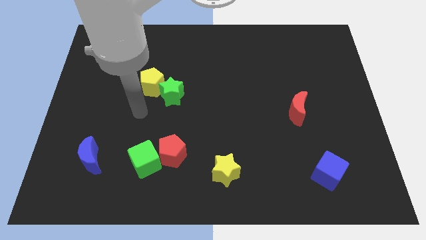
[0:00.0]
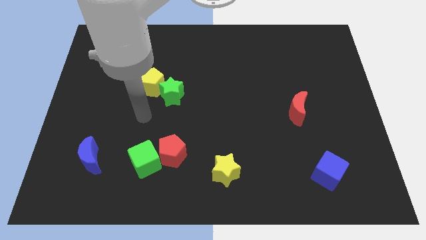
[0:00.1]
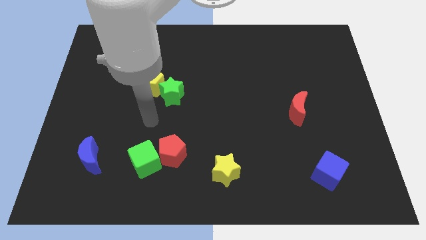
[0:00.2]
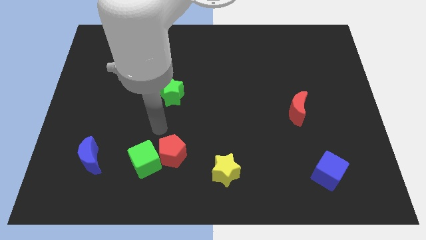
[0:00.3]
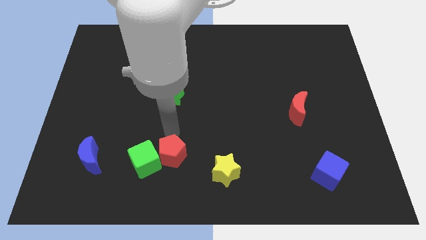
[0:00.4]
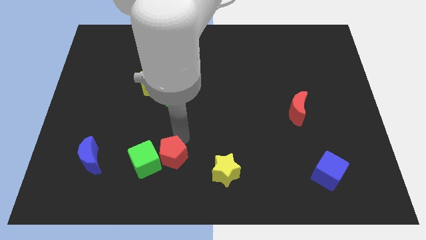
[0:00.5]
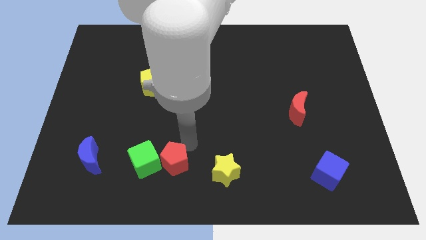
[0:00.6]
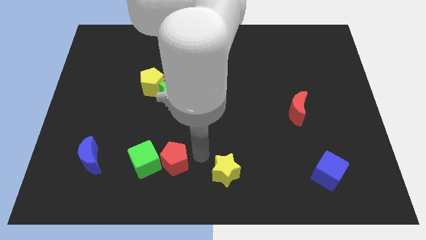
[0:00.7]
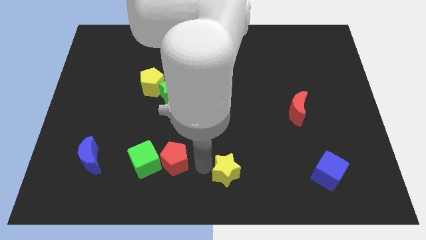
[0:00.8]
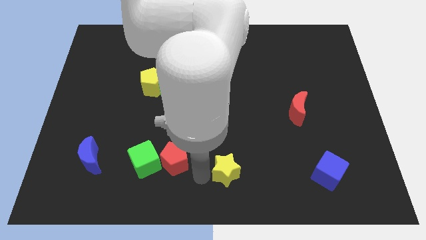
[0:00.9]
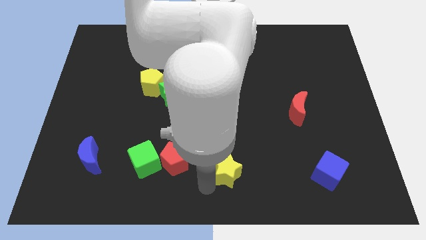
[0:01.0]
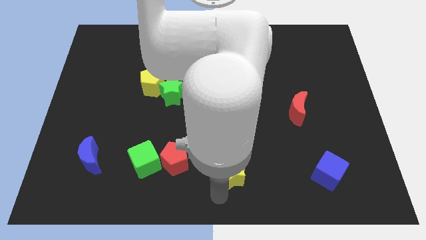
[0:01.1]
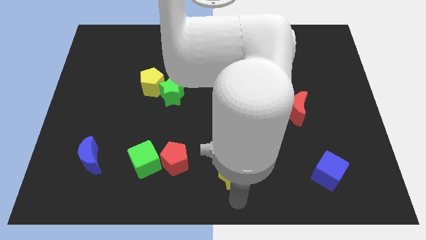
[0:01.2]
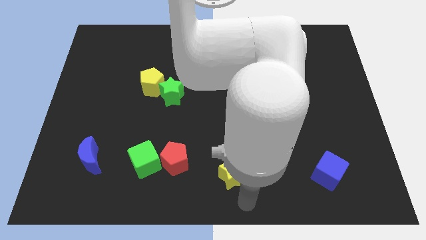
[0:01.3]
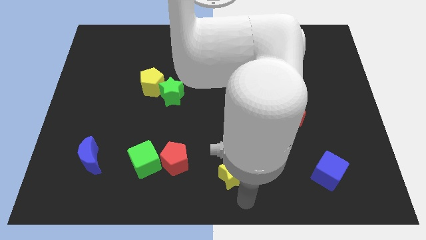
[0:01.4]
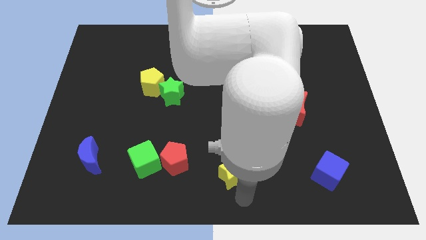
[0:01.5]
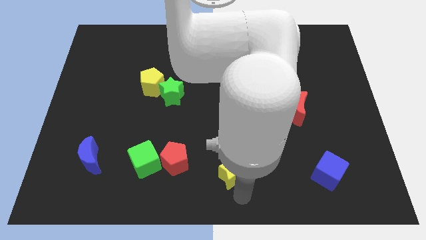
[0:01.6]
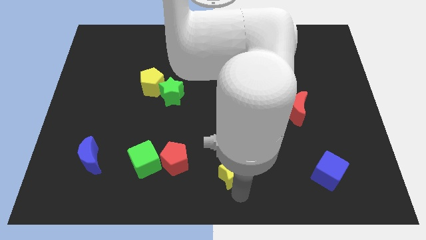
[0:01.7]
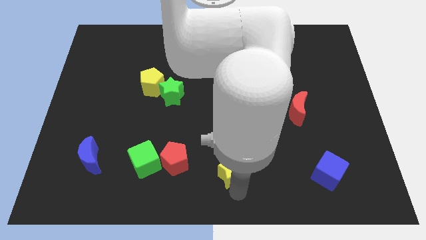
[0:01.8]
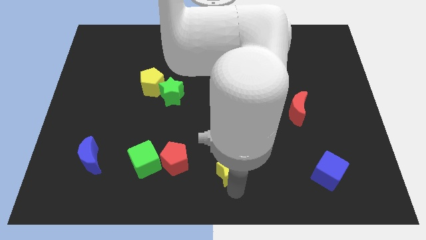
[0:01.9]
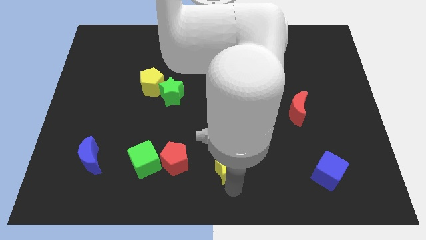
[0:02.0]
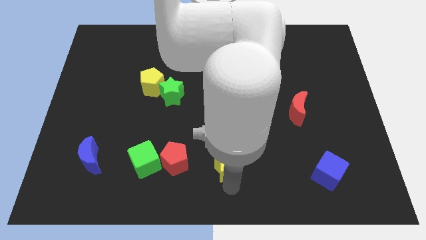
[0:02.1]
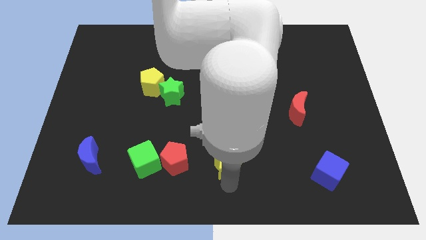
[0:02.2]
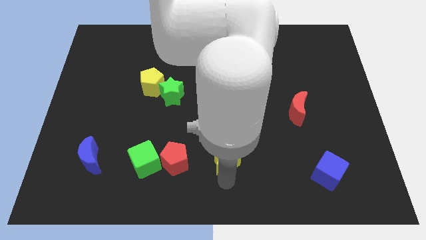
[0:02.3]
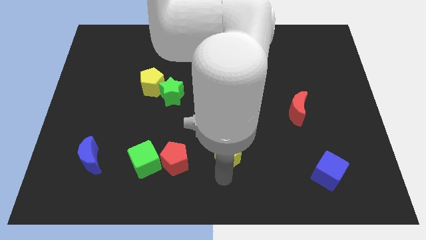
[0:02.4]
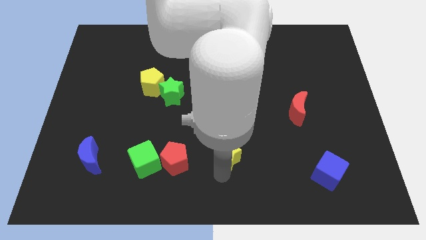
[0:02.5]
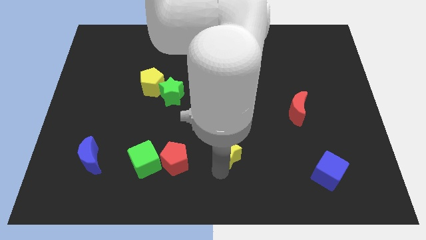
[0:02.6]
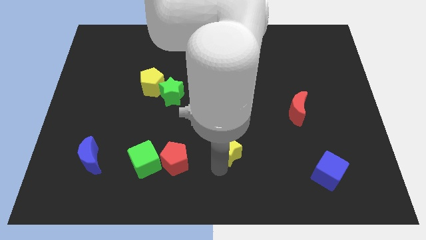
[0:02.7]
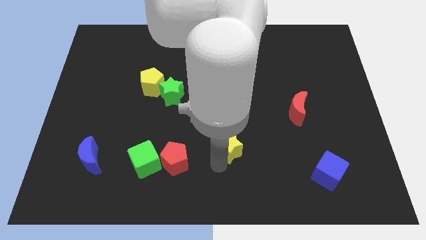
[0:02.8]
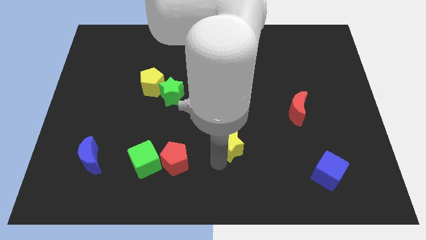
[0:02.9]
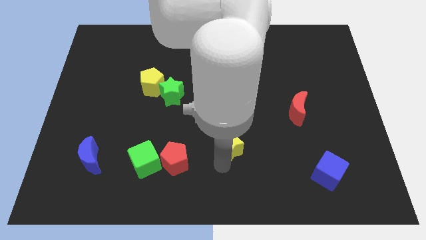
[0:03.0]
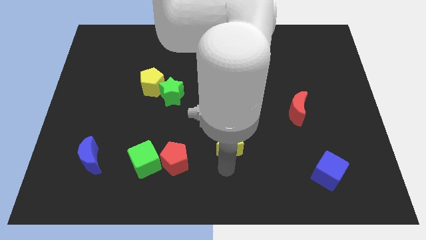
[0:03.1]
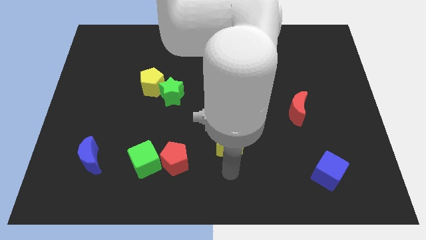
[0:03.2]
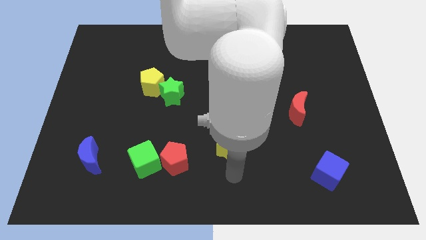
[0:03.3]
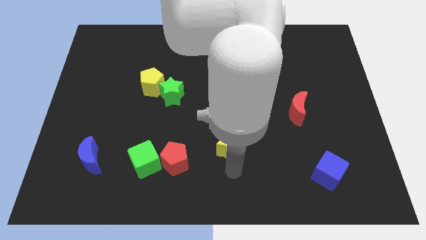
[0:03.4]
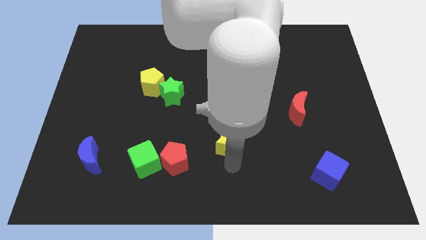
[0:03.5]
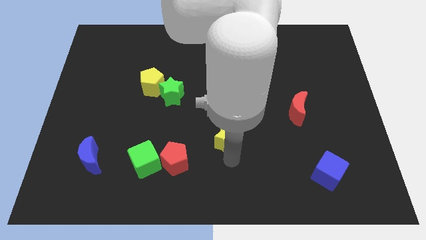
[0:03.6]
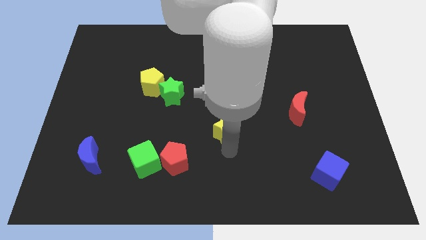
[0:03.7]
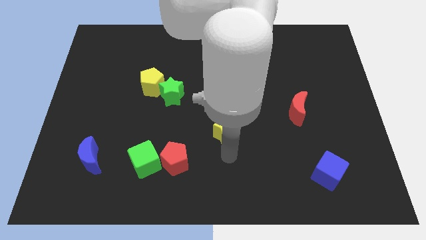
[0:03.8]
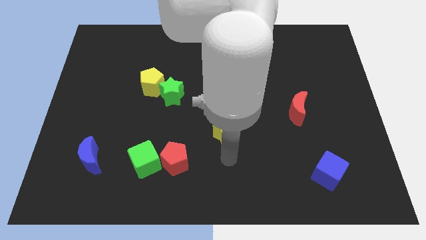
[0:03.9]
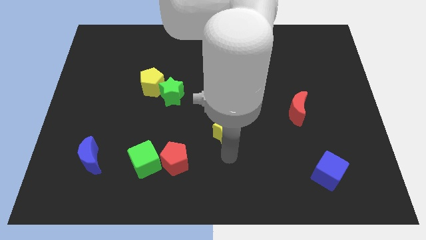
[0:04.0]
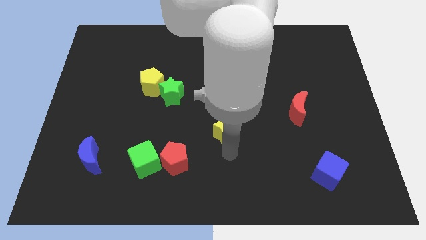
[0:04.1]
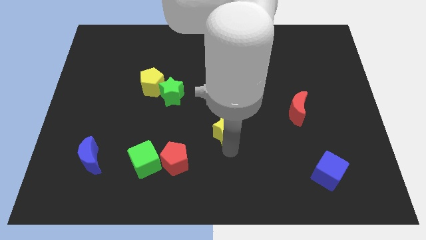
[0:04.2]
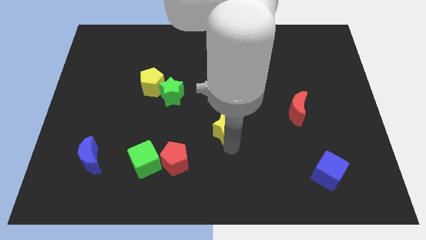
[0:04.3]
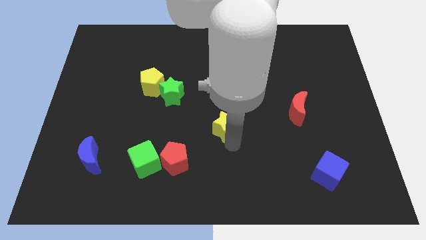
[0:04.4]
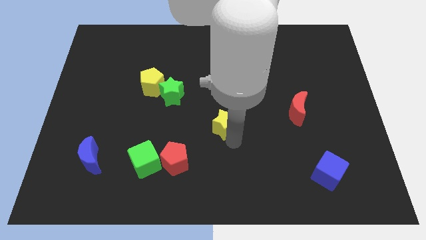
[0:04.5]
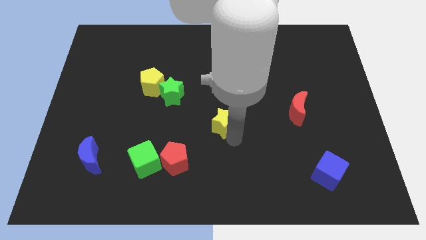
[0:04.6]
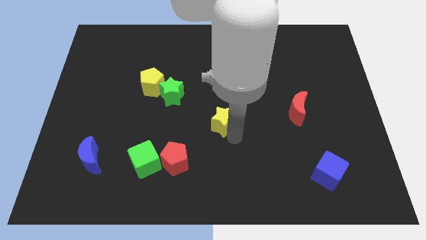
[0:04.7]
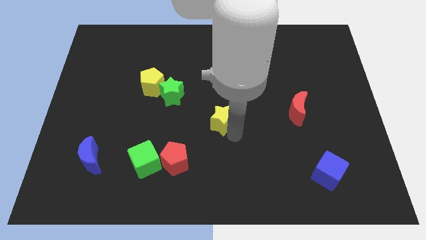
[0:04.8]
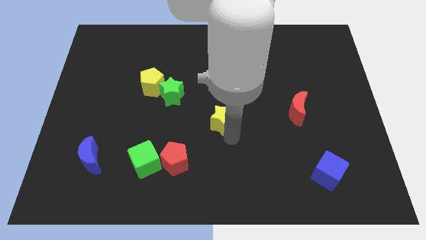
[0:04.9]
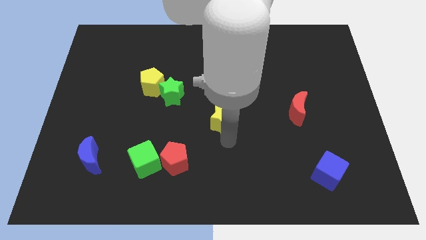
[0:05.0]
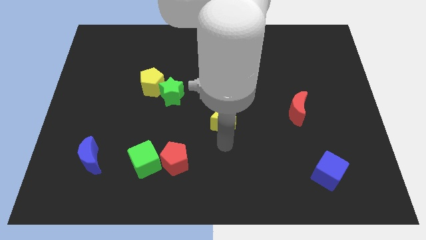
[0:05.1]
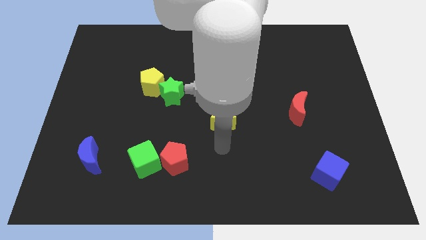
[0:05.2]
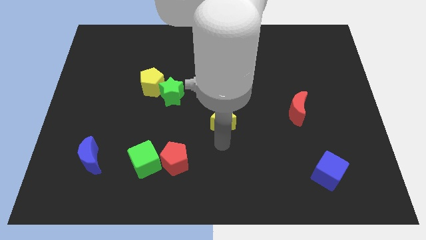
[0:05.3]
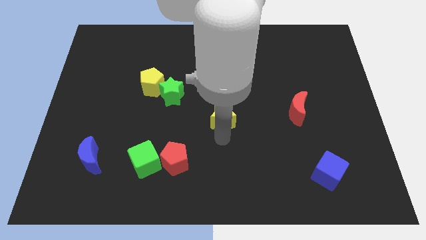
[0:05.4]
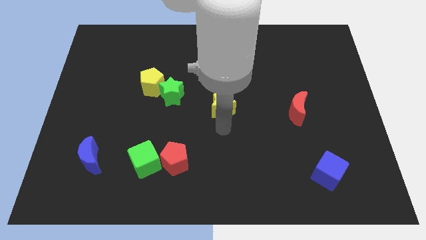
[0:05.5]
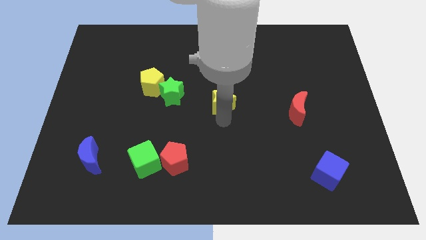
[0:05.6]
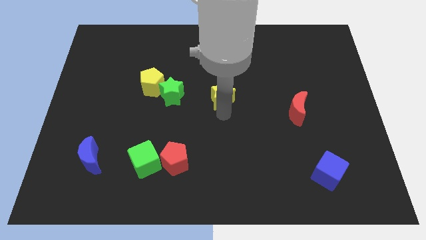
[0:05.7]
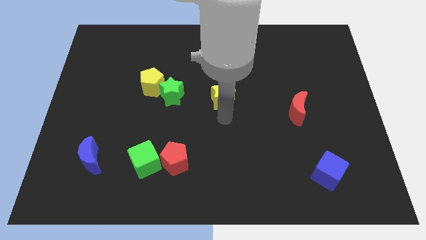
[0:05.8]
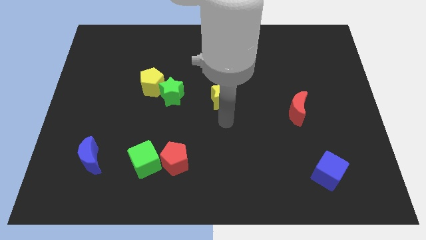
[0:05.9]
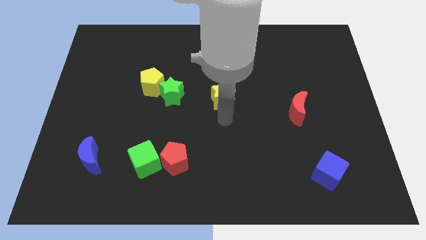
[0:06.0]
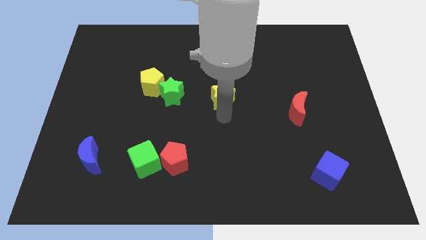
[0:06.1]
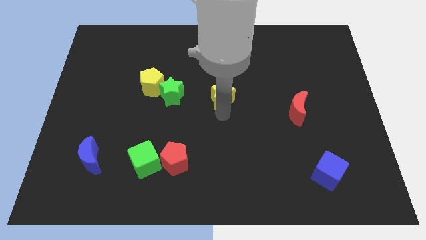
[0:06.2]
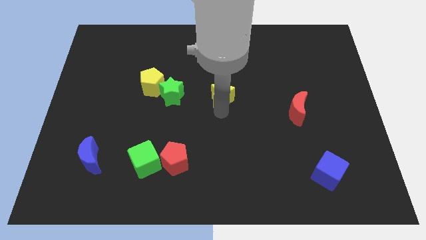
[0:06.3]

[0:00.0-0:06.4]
move the yellow star up

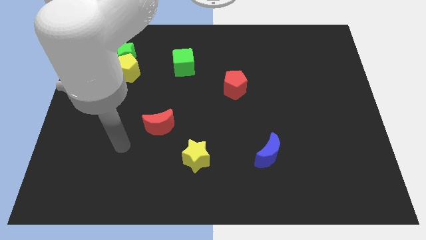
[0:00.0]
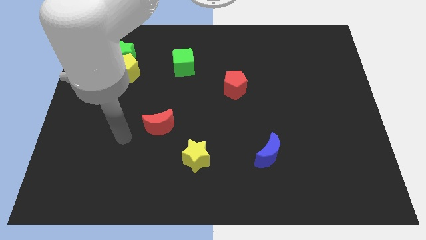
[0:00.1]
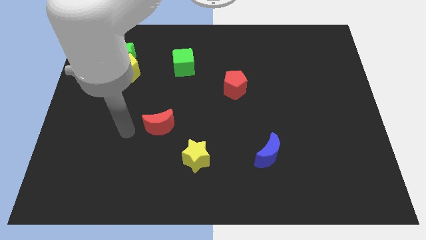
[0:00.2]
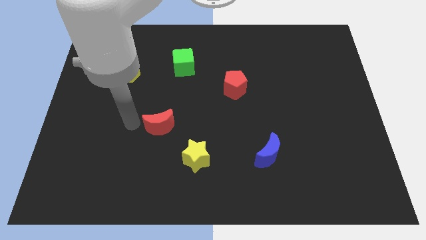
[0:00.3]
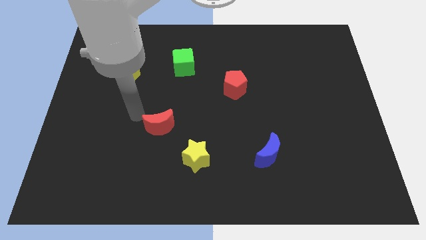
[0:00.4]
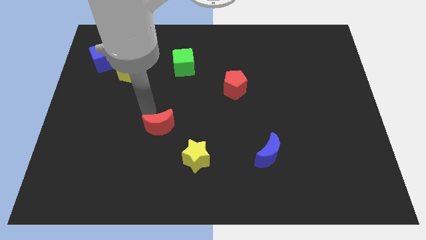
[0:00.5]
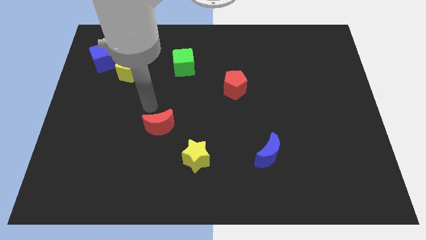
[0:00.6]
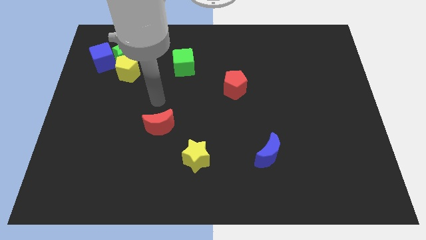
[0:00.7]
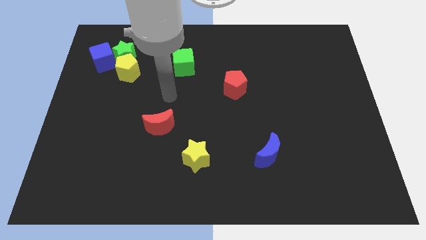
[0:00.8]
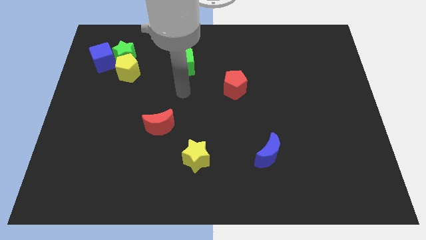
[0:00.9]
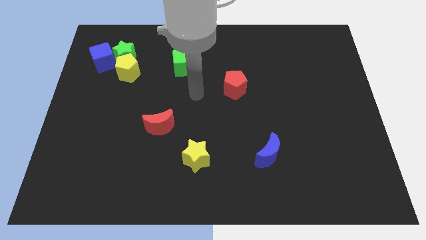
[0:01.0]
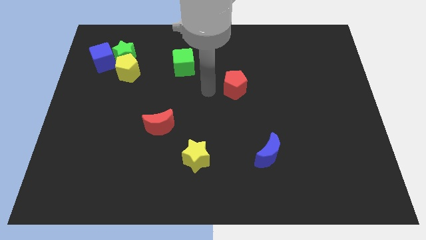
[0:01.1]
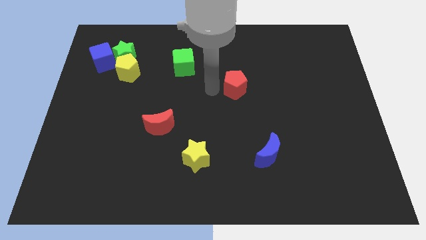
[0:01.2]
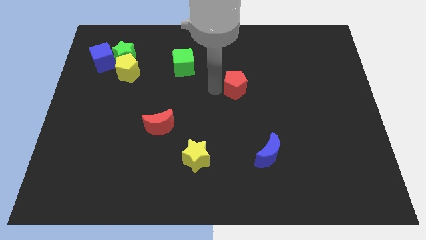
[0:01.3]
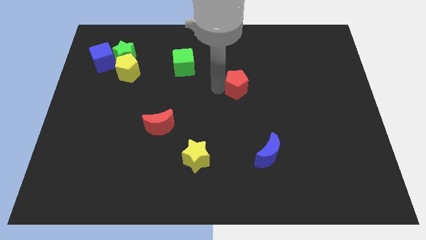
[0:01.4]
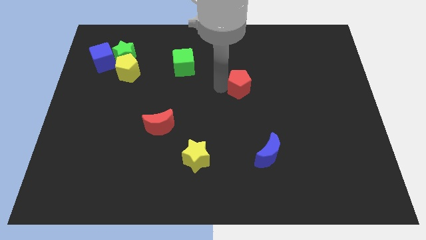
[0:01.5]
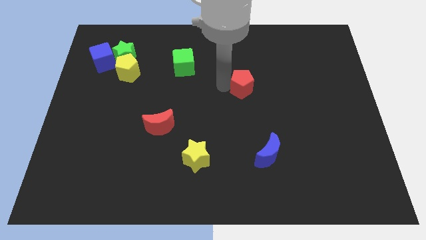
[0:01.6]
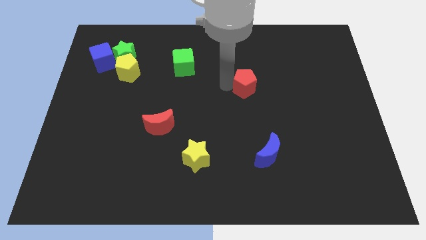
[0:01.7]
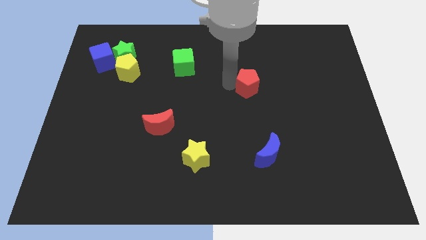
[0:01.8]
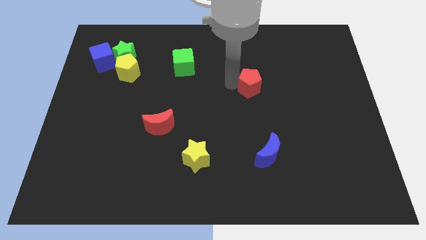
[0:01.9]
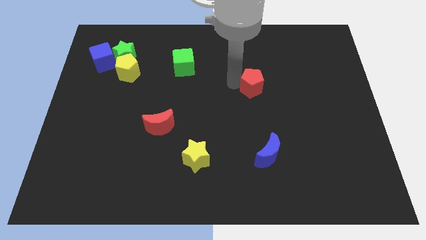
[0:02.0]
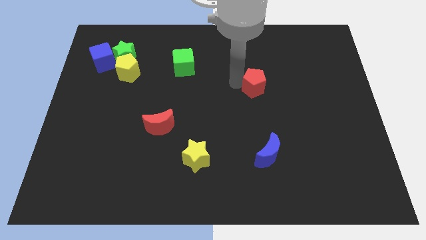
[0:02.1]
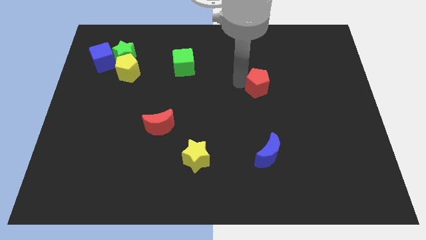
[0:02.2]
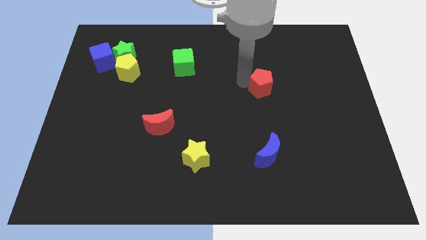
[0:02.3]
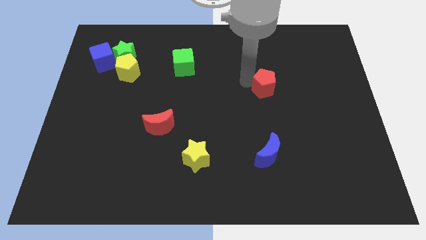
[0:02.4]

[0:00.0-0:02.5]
slightly slide the red pentagon to the right
